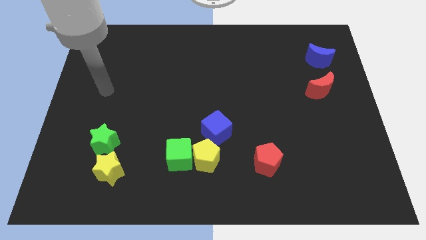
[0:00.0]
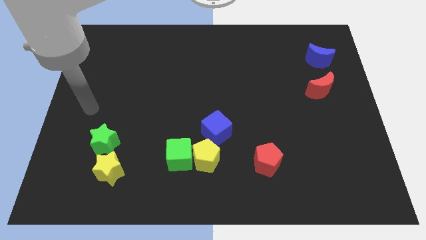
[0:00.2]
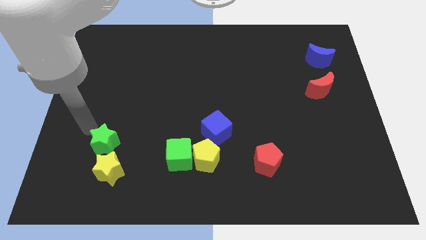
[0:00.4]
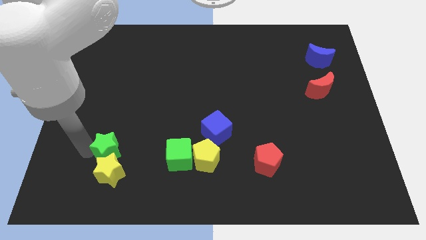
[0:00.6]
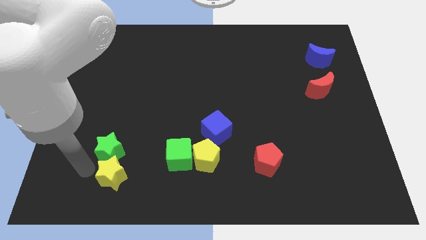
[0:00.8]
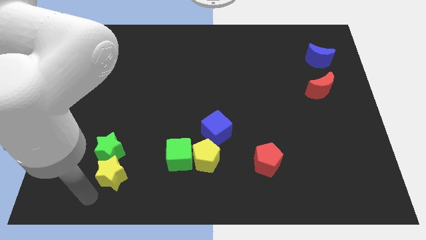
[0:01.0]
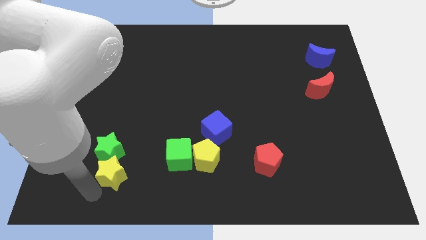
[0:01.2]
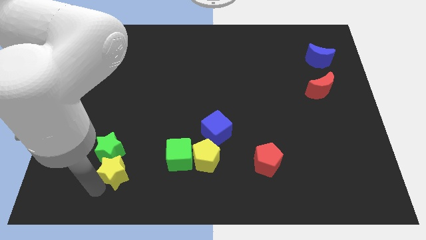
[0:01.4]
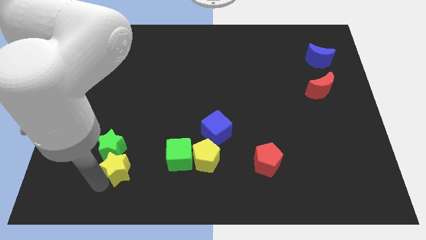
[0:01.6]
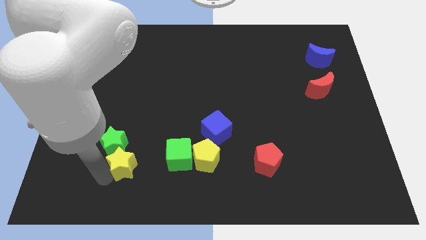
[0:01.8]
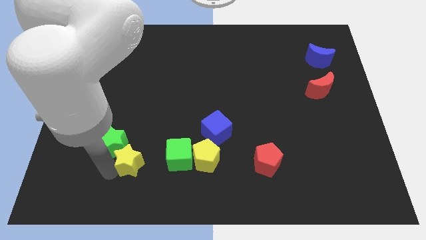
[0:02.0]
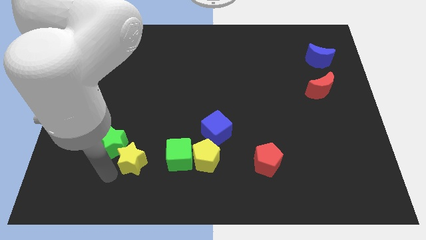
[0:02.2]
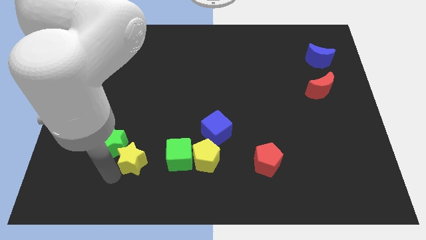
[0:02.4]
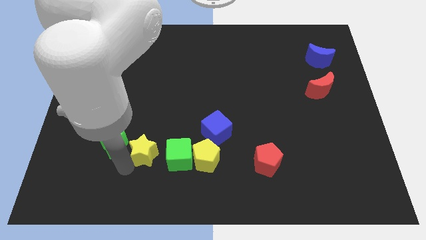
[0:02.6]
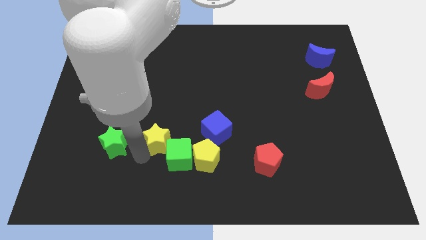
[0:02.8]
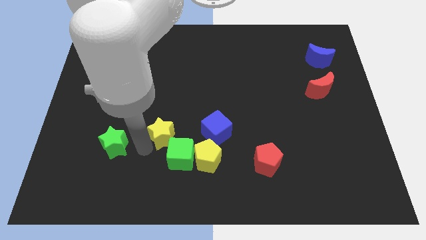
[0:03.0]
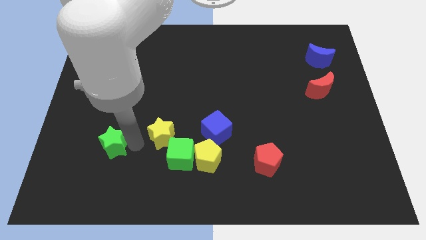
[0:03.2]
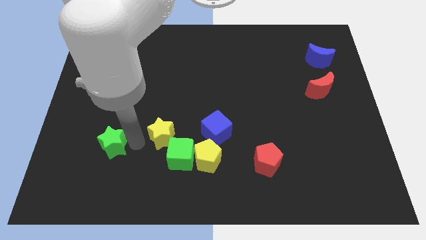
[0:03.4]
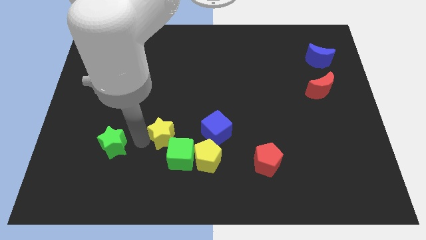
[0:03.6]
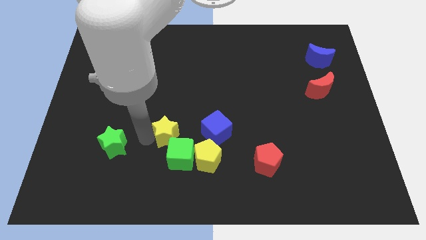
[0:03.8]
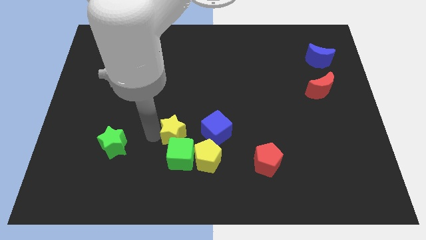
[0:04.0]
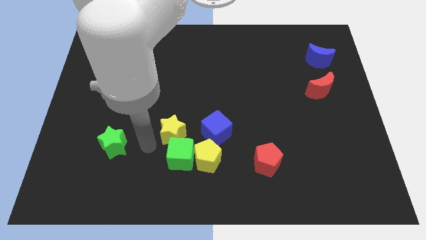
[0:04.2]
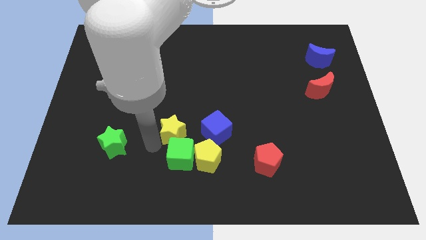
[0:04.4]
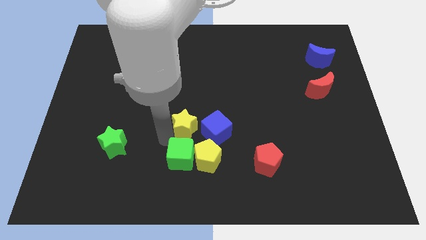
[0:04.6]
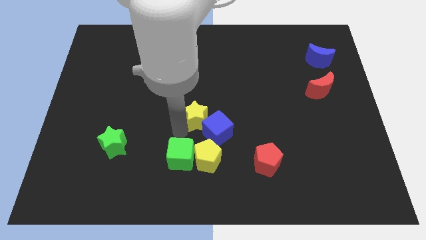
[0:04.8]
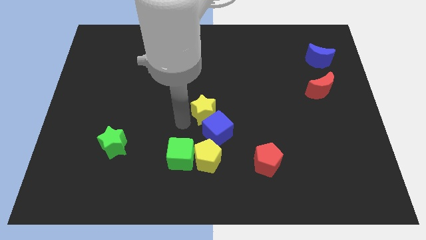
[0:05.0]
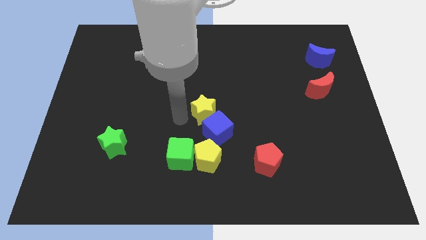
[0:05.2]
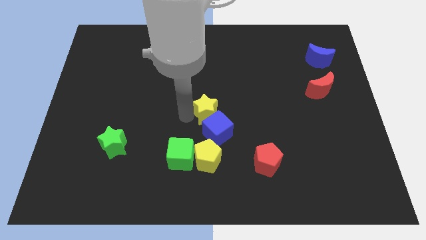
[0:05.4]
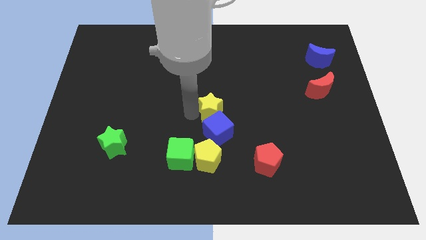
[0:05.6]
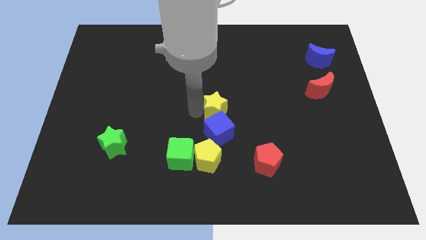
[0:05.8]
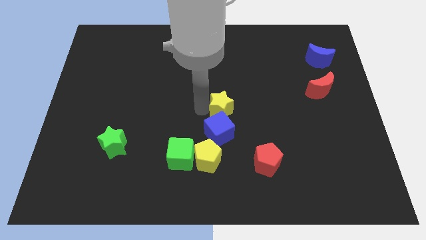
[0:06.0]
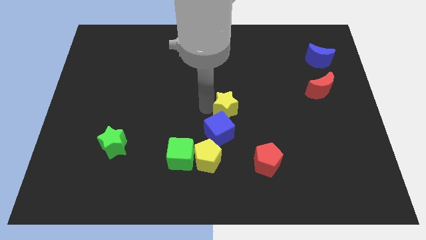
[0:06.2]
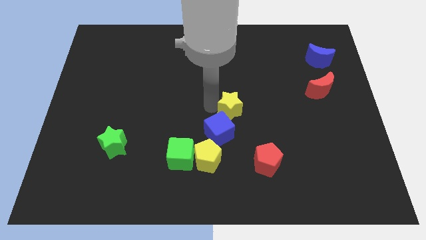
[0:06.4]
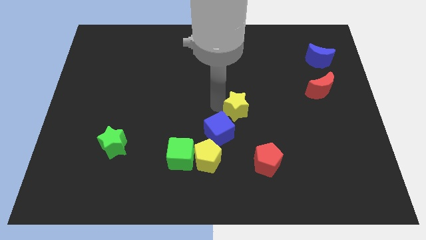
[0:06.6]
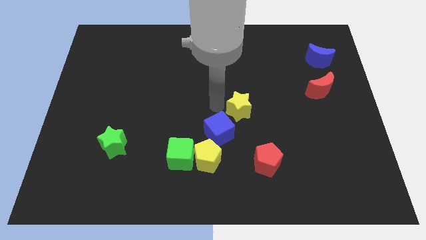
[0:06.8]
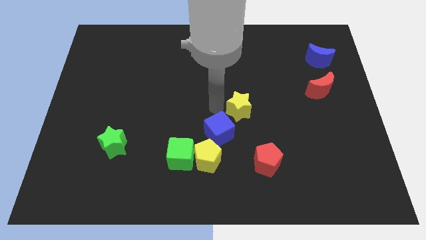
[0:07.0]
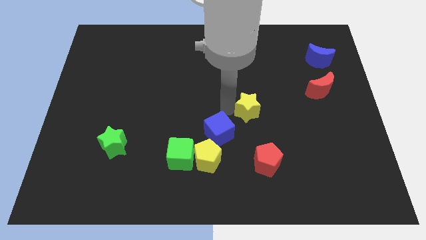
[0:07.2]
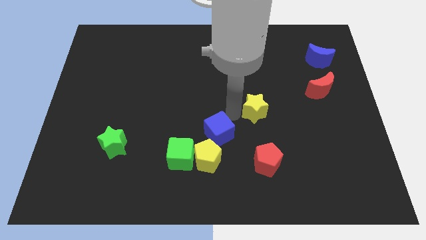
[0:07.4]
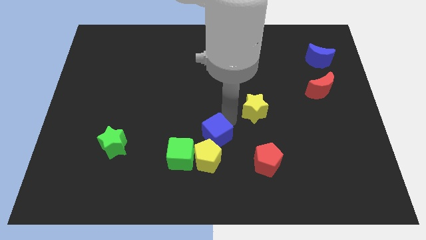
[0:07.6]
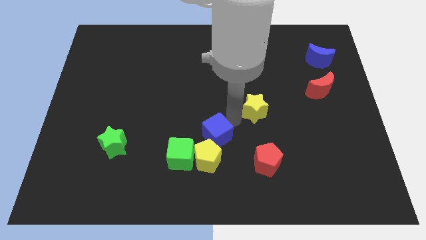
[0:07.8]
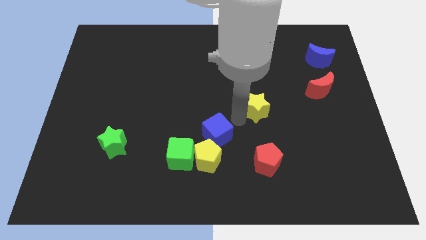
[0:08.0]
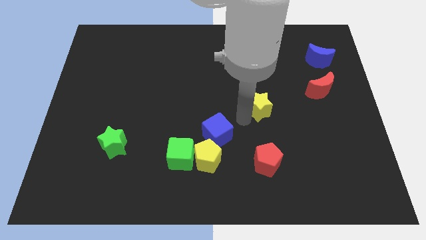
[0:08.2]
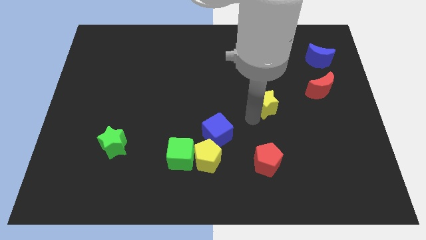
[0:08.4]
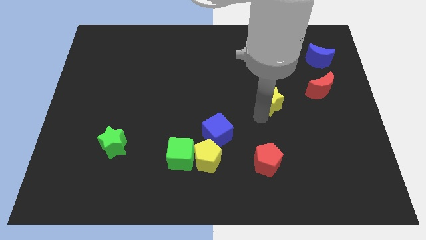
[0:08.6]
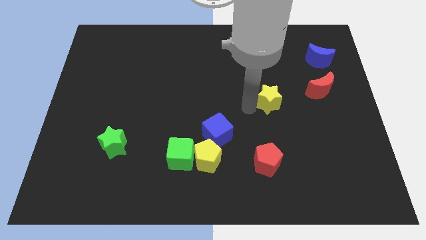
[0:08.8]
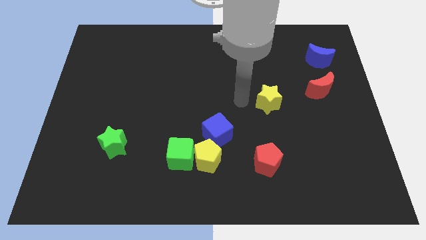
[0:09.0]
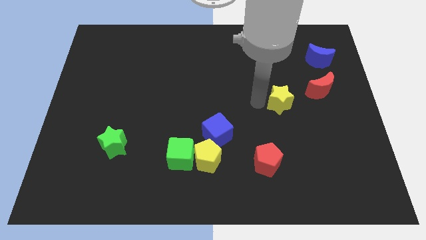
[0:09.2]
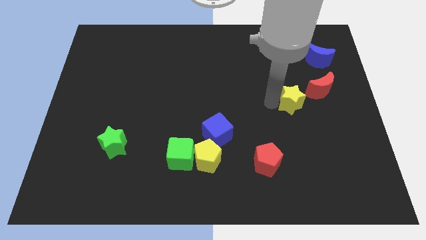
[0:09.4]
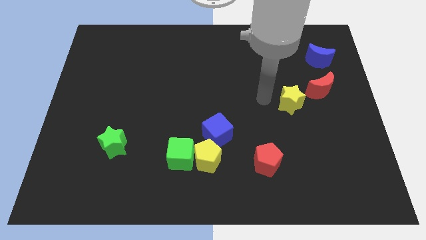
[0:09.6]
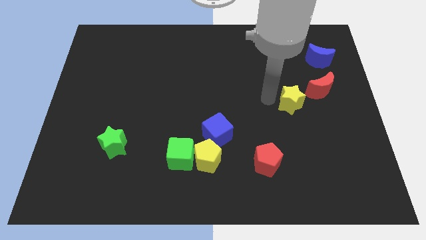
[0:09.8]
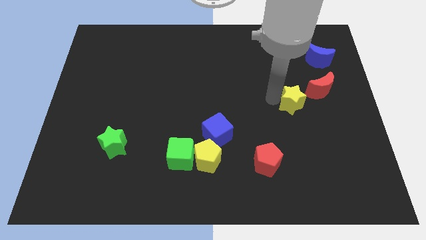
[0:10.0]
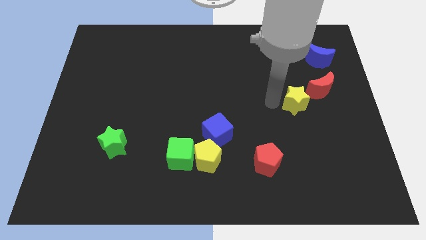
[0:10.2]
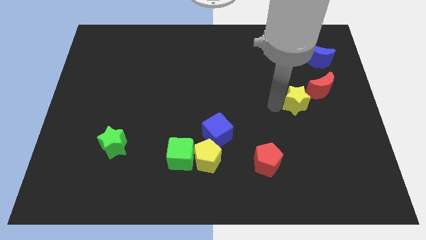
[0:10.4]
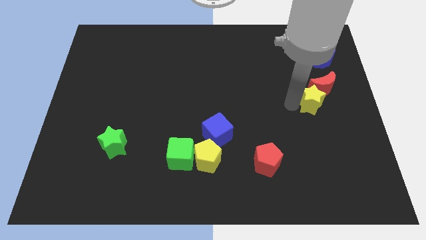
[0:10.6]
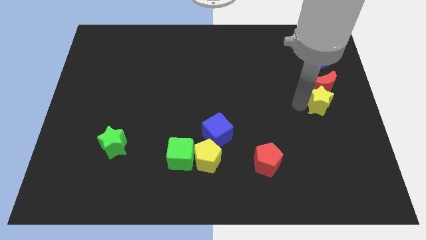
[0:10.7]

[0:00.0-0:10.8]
put the yellow star to the right side of the board
